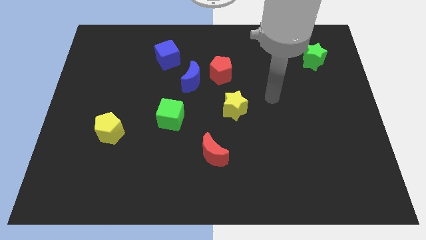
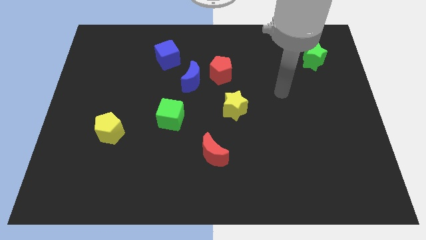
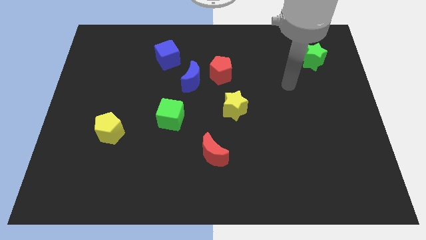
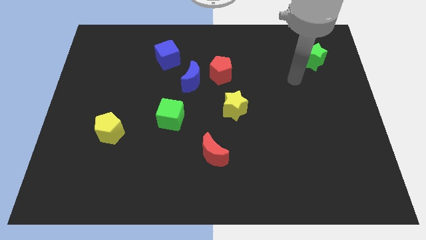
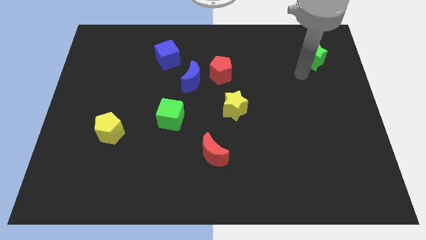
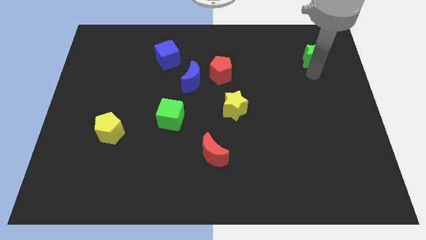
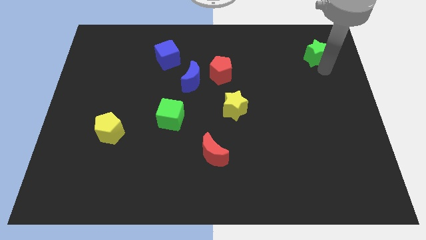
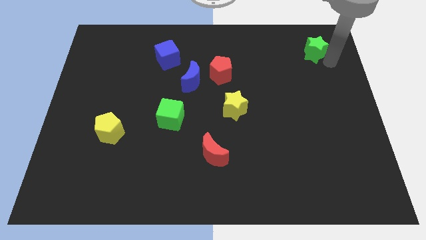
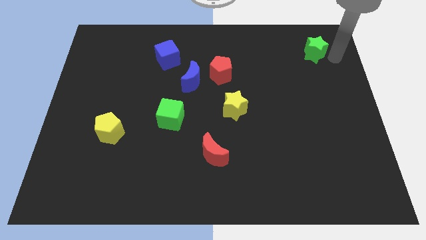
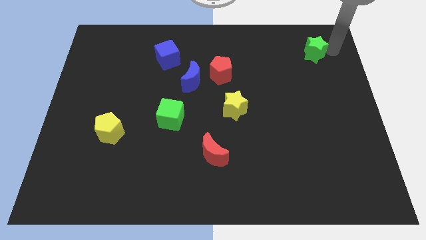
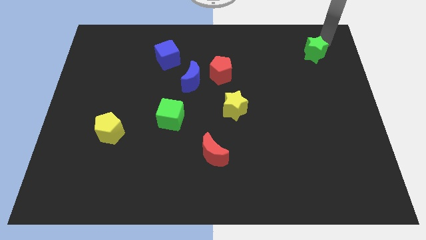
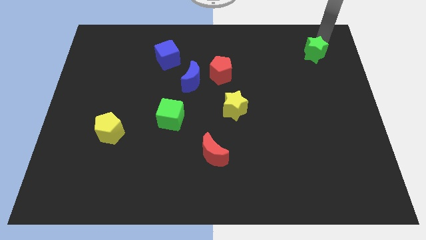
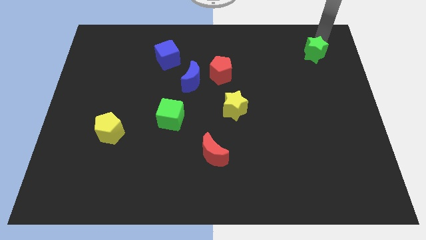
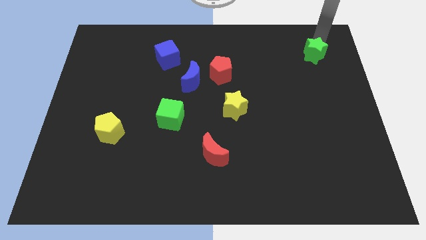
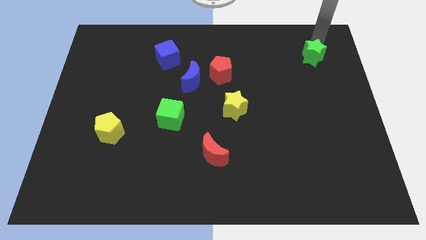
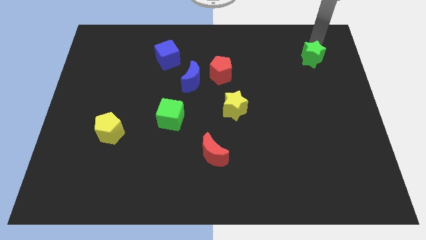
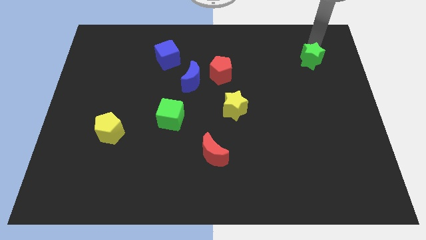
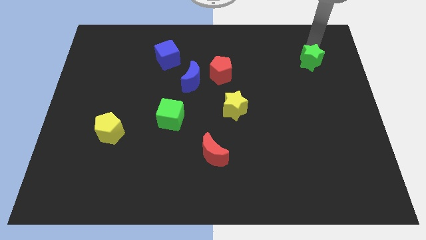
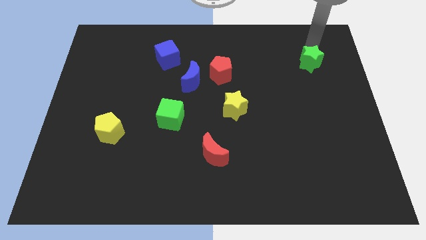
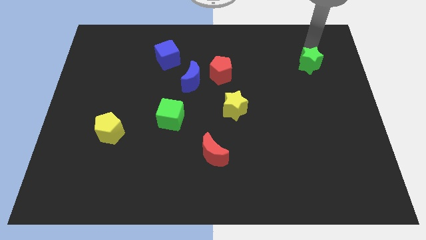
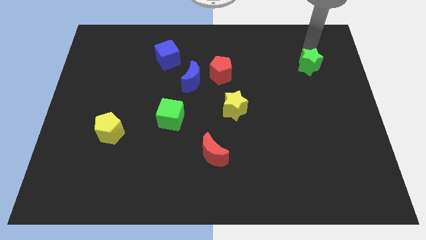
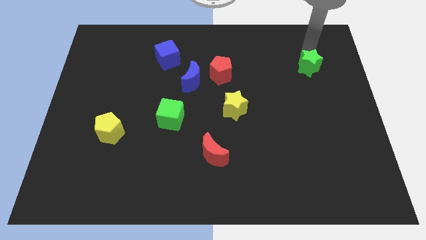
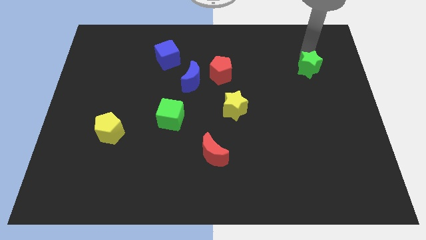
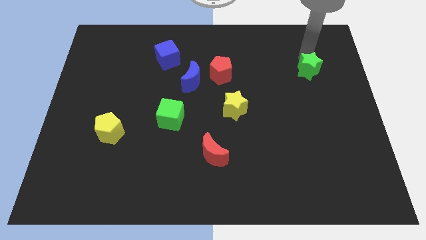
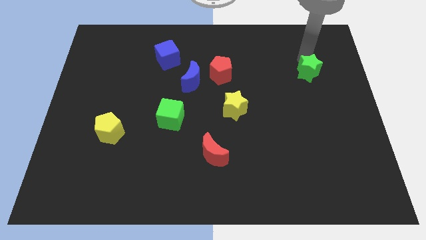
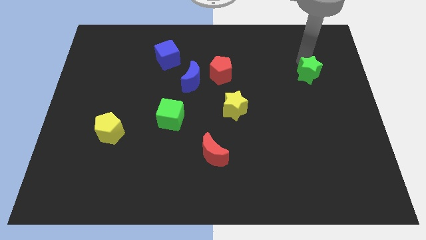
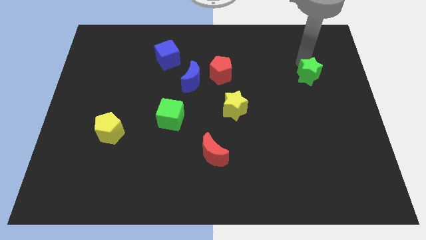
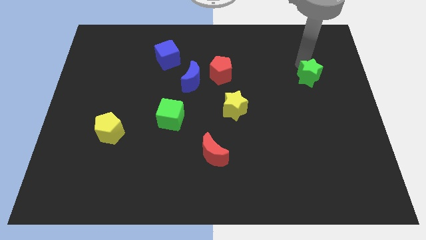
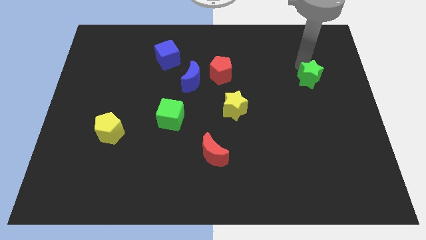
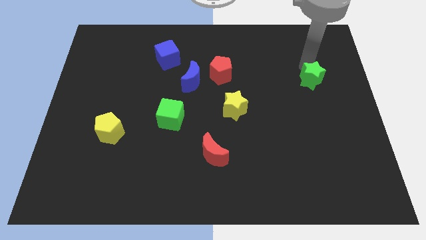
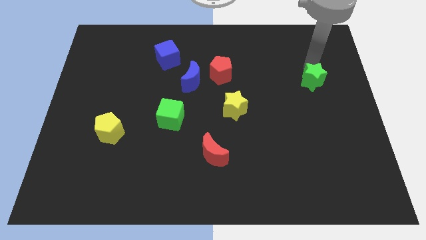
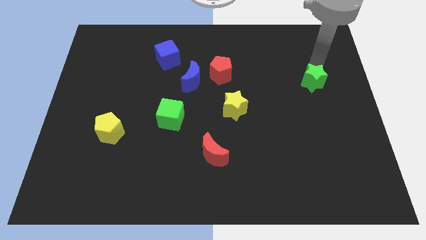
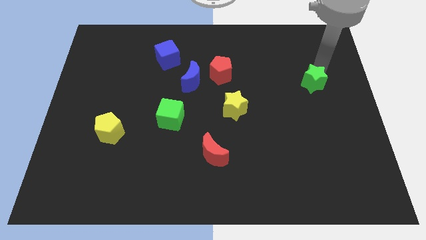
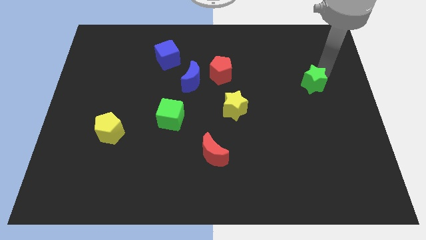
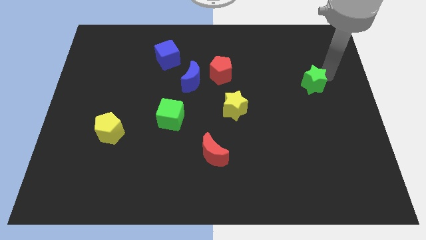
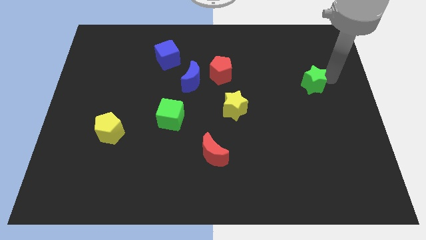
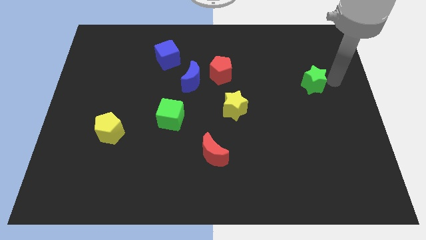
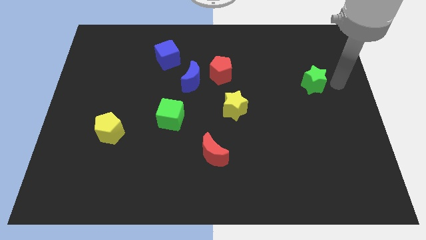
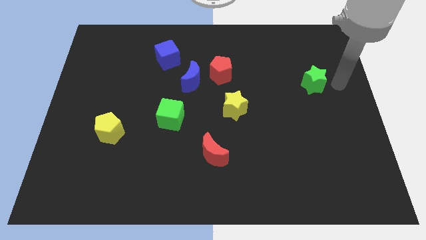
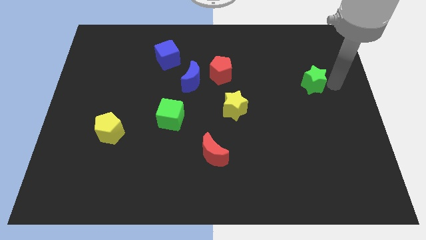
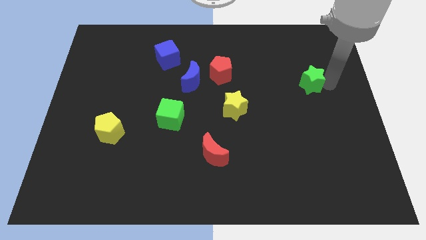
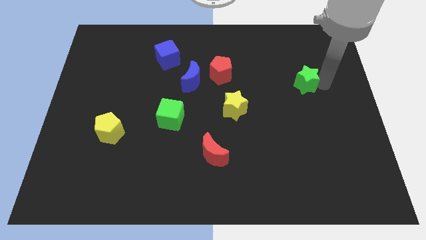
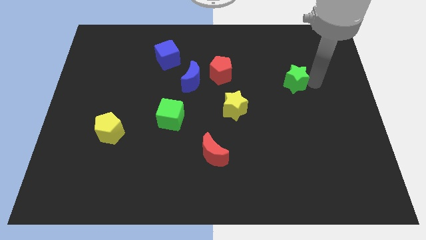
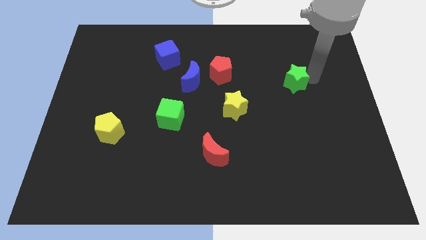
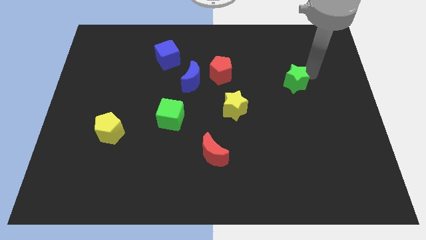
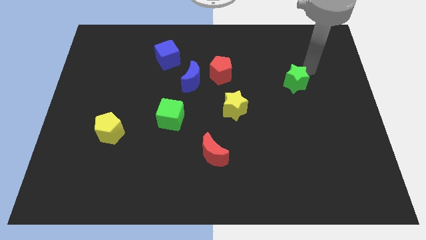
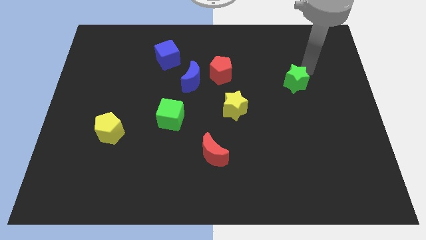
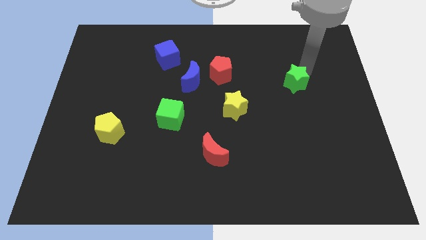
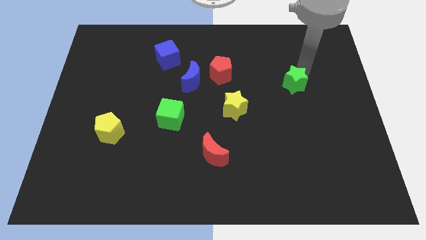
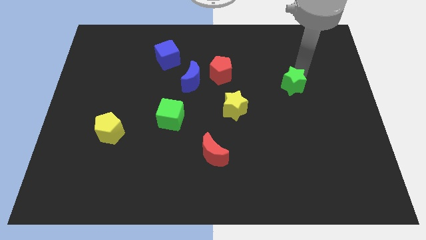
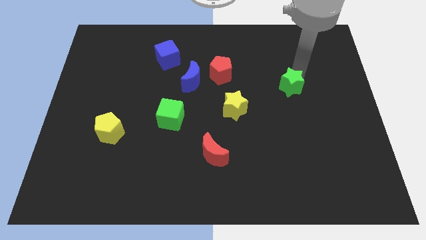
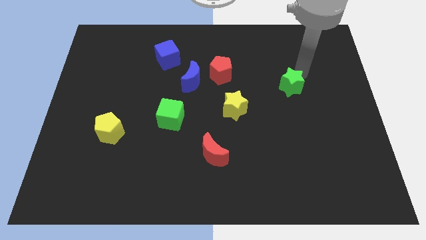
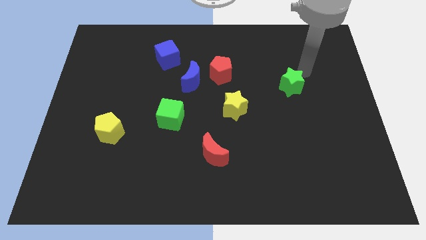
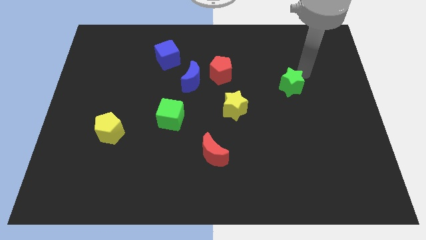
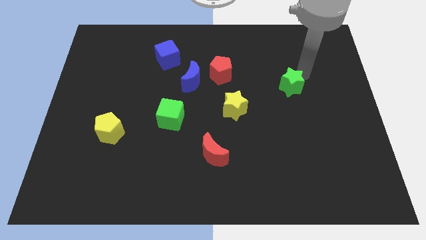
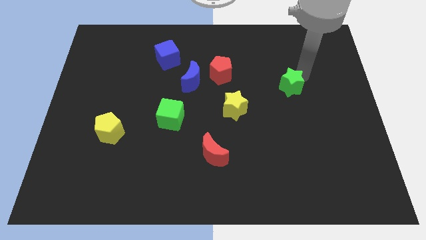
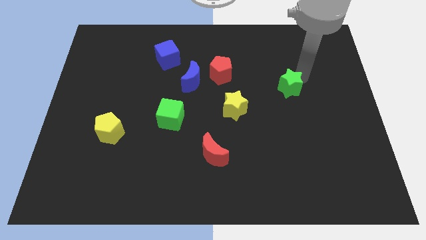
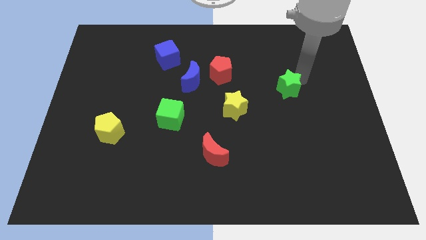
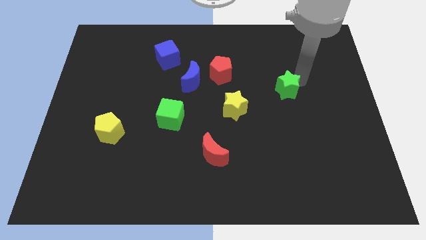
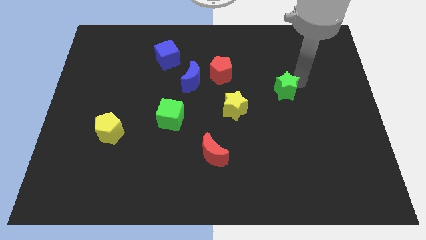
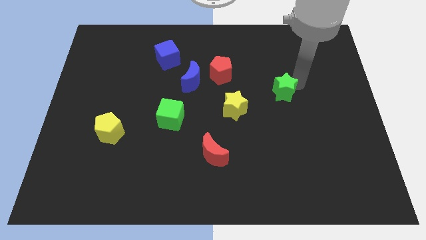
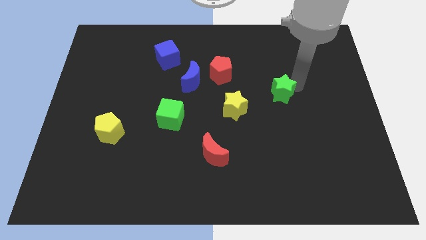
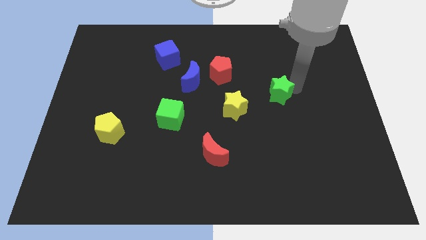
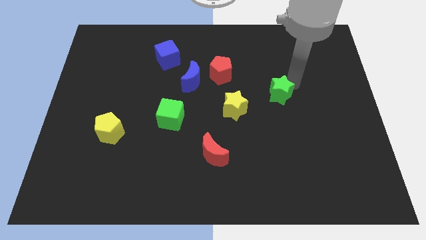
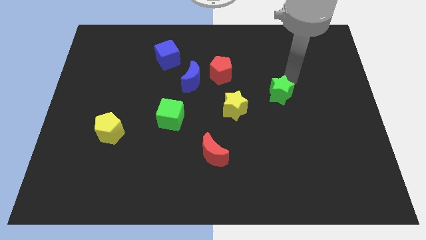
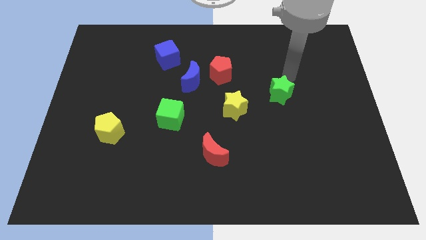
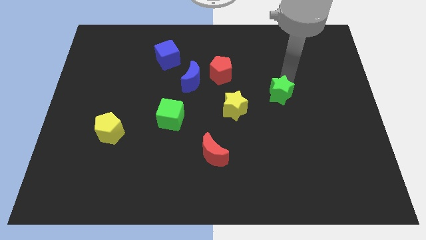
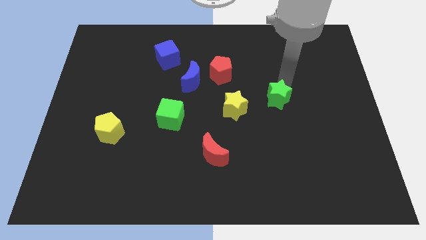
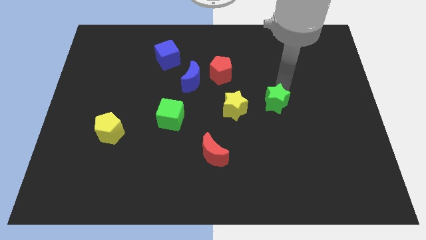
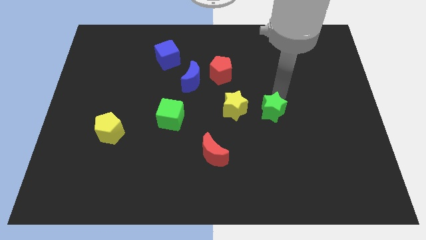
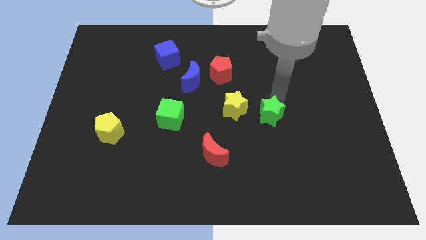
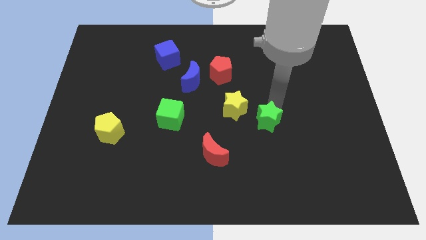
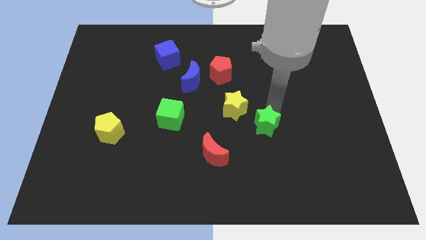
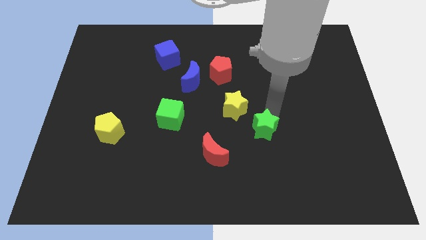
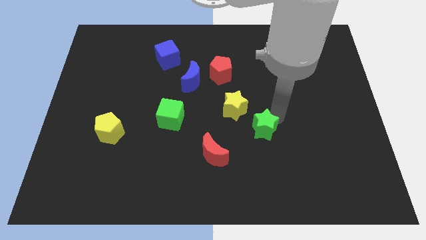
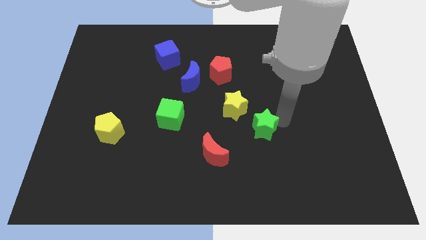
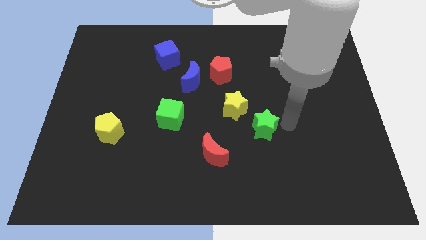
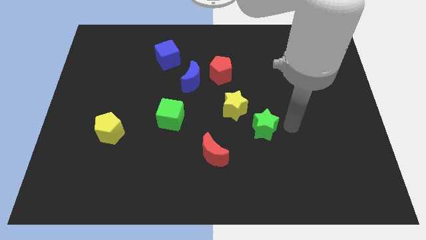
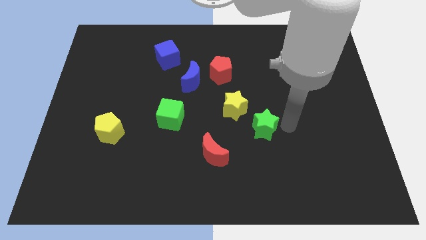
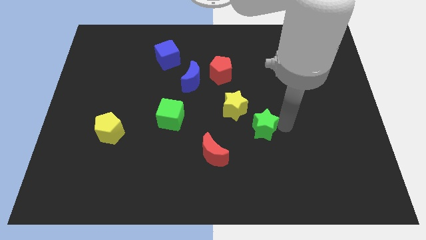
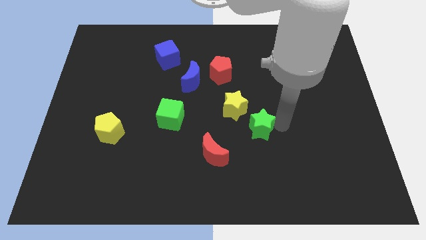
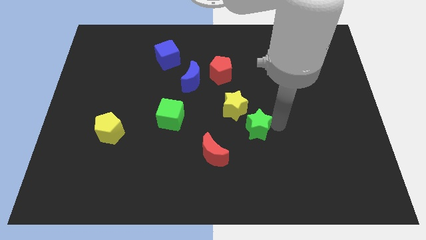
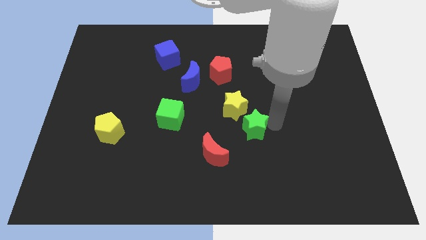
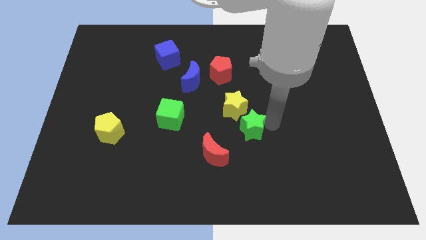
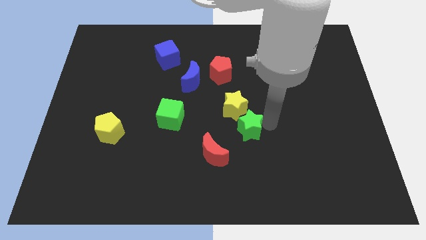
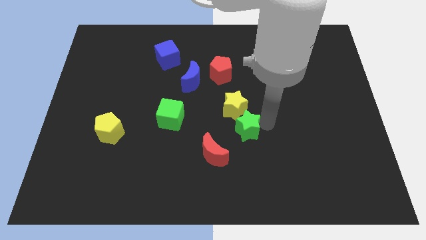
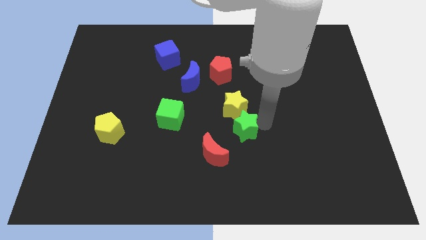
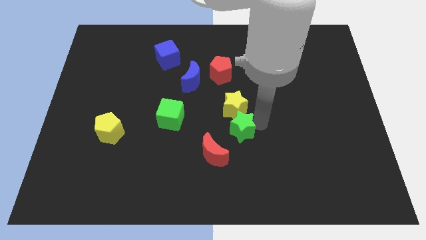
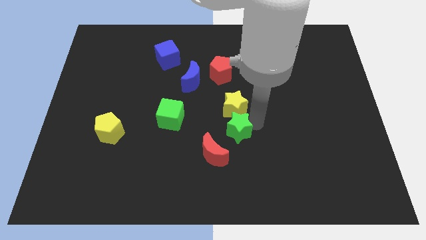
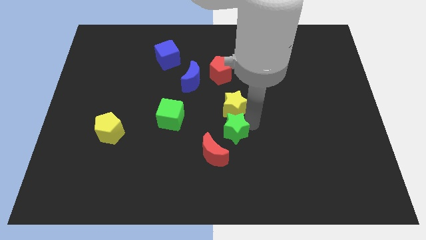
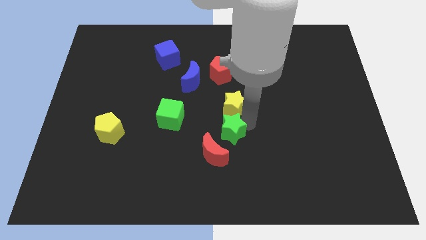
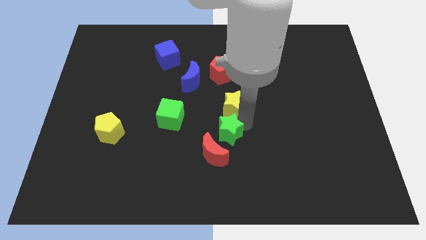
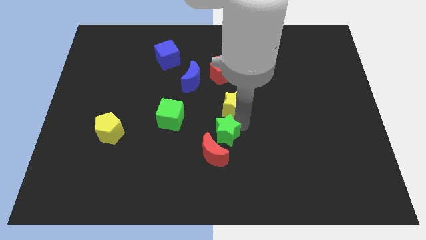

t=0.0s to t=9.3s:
move the green star to the red moon
